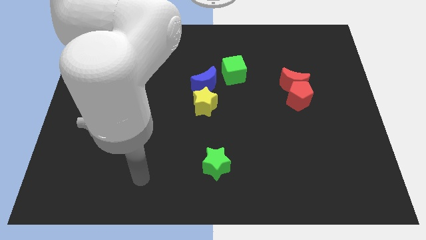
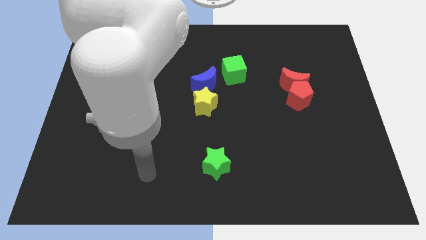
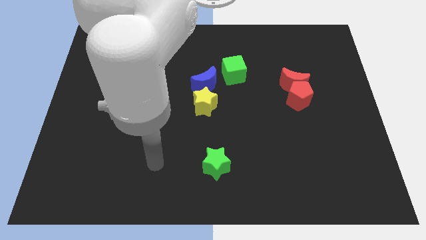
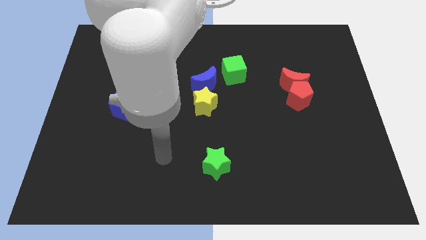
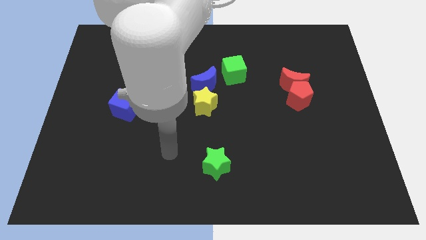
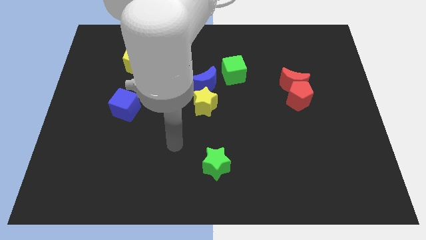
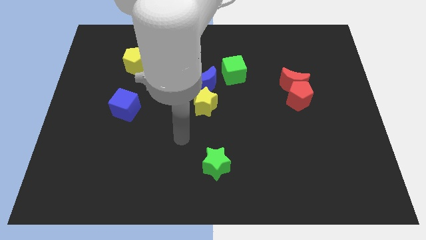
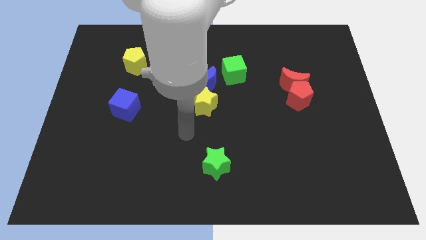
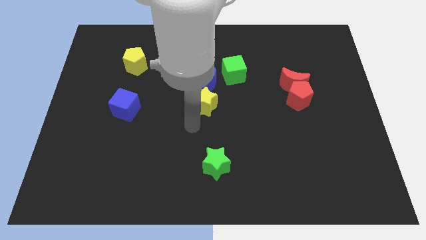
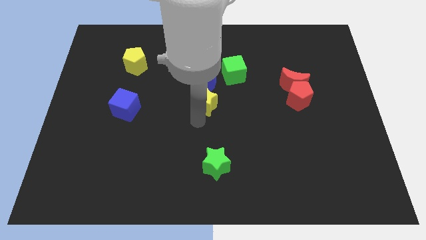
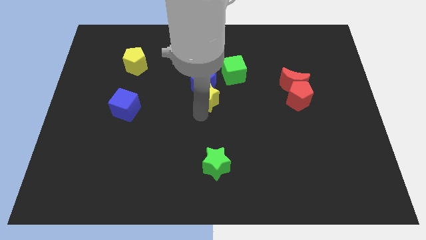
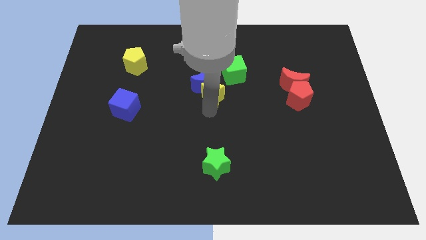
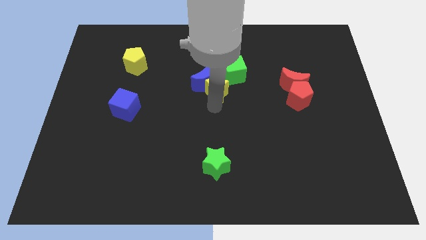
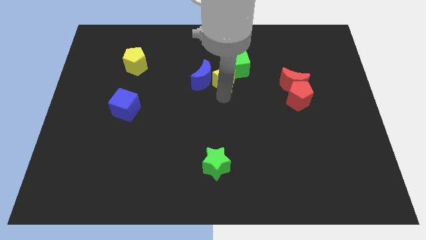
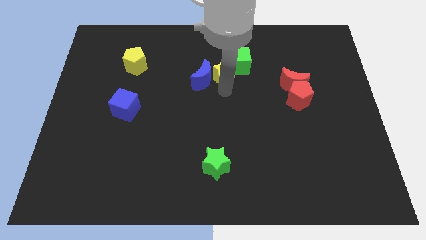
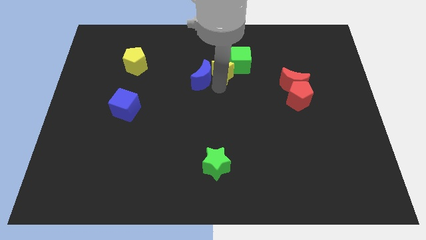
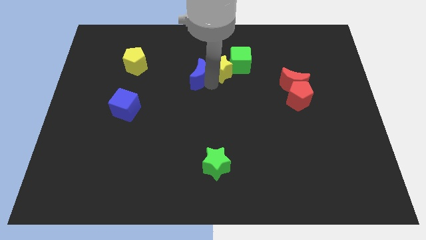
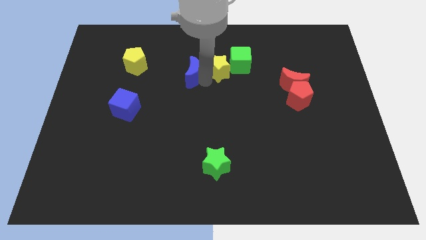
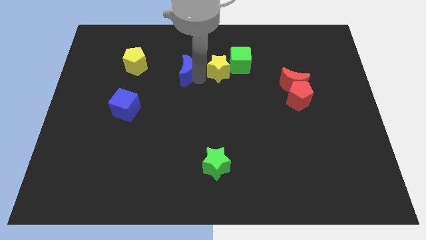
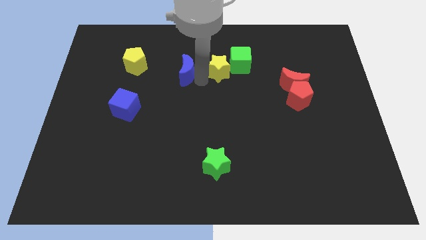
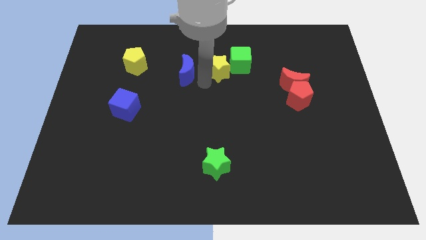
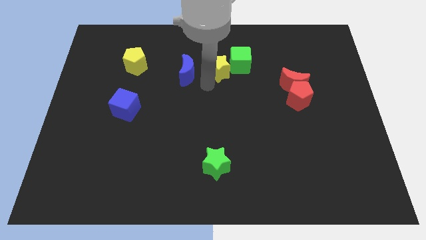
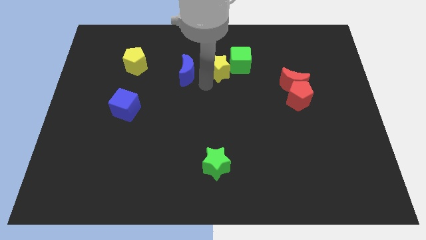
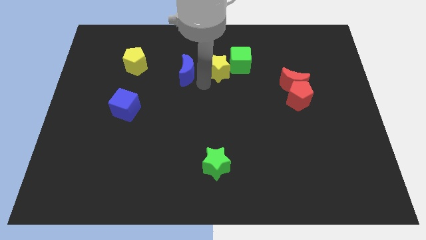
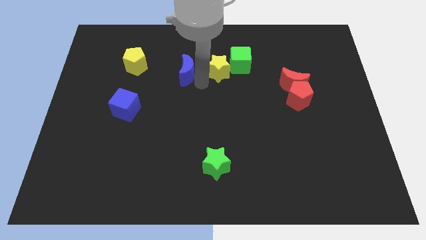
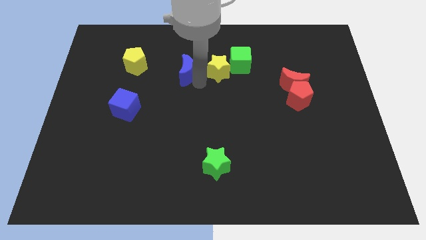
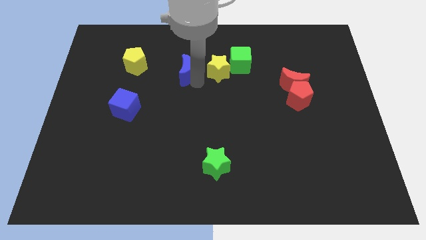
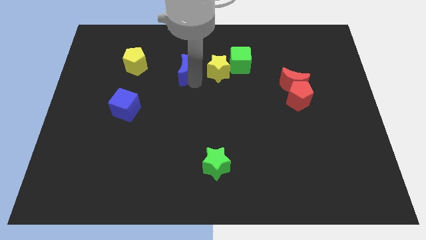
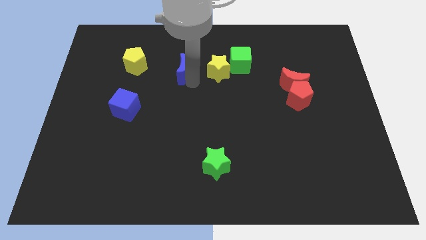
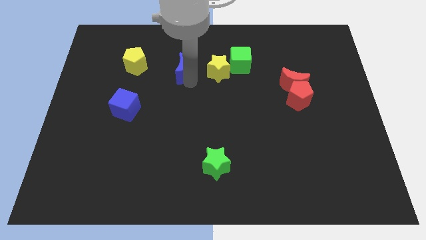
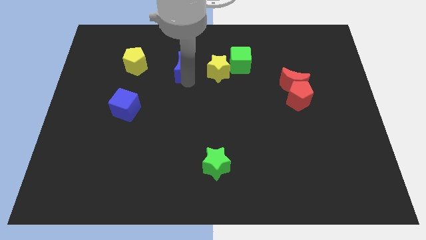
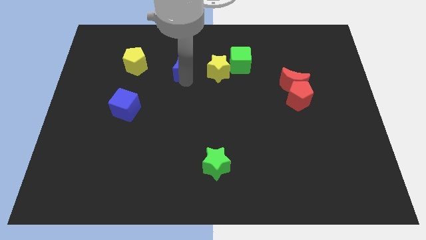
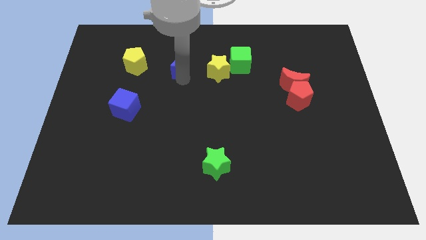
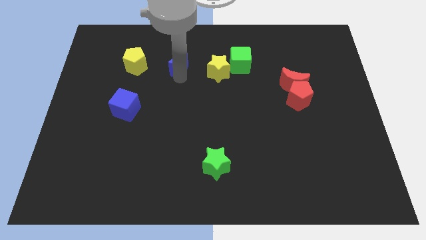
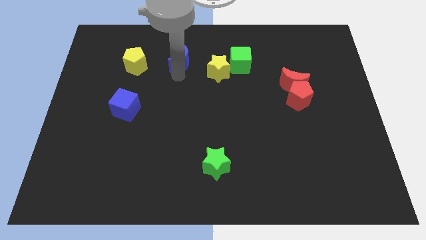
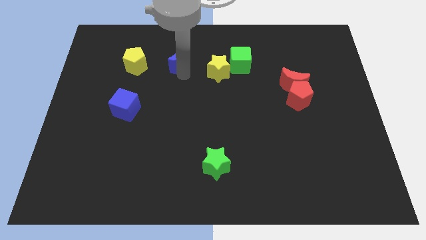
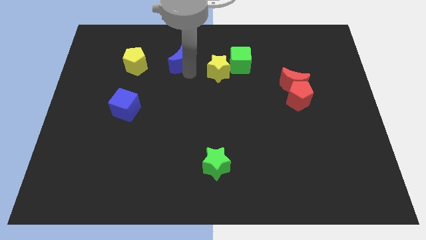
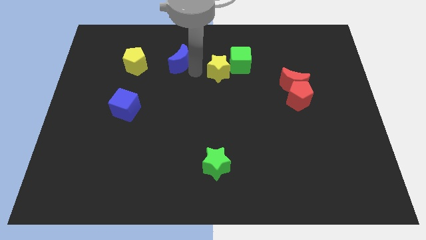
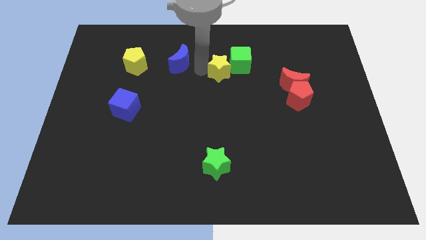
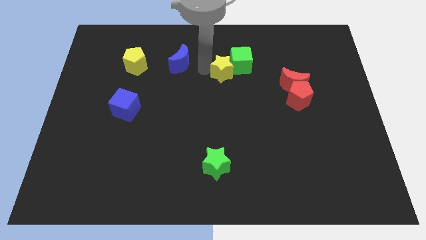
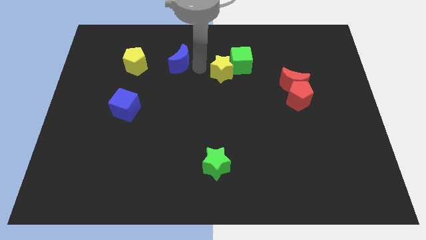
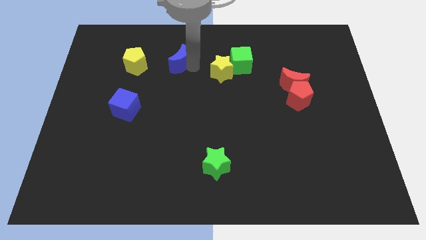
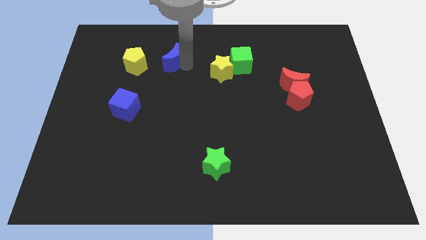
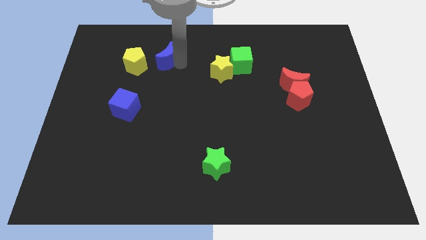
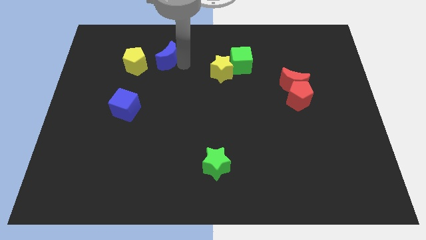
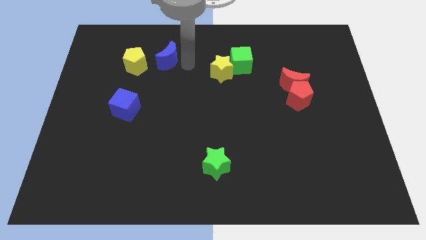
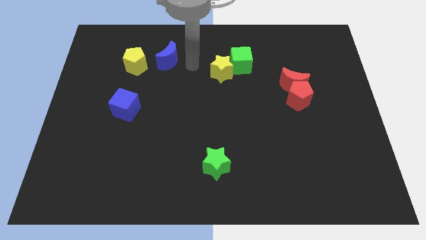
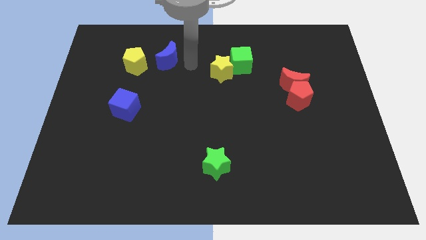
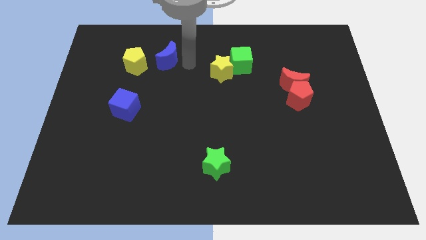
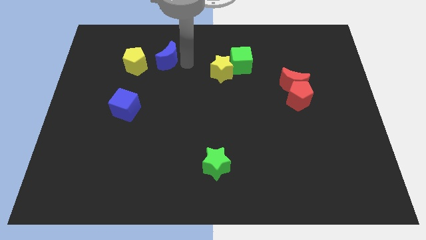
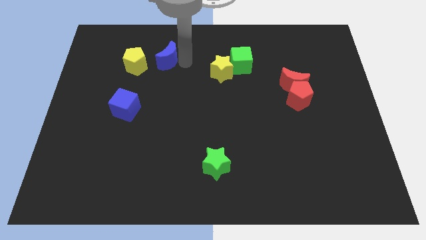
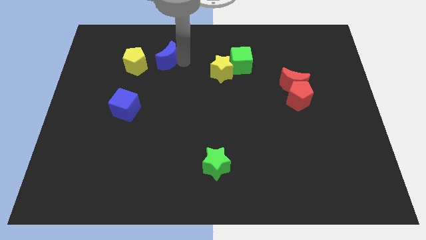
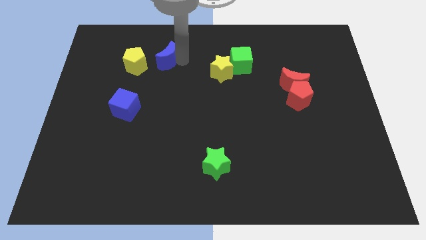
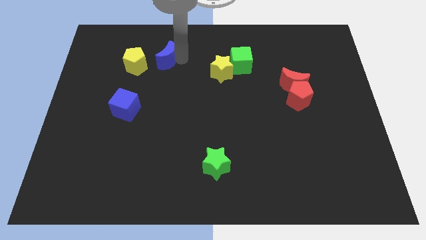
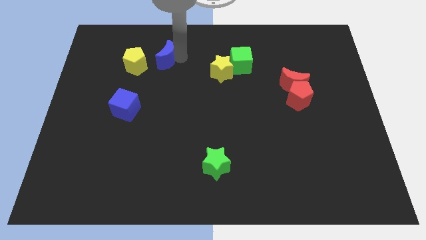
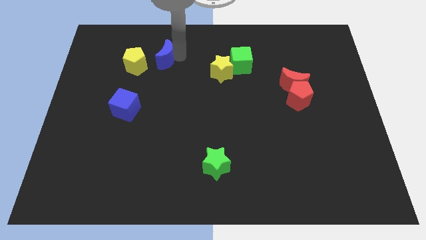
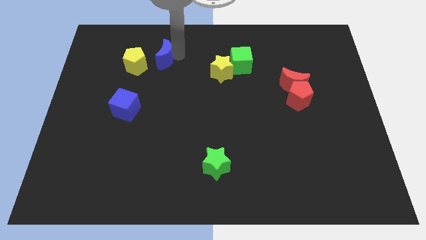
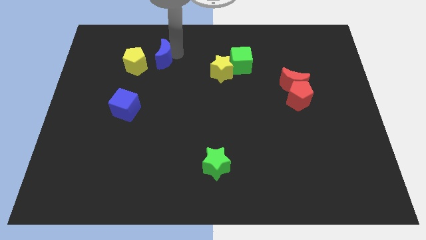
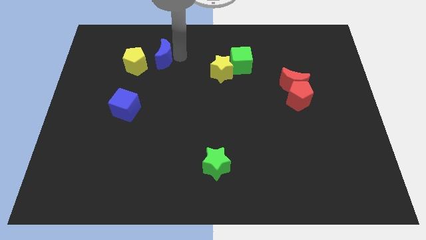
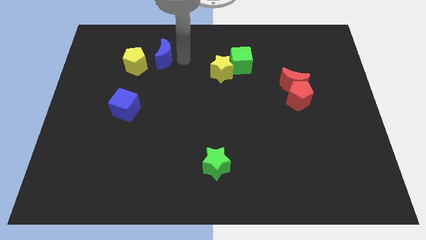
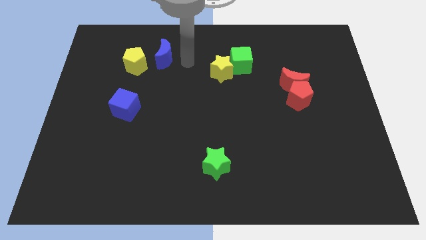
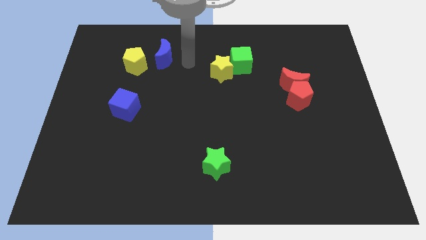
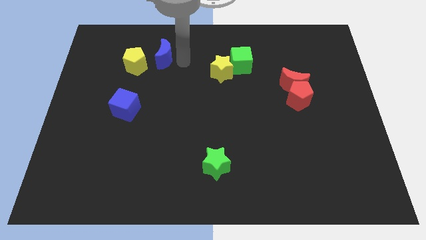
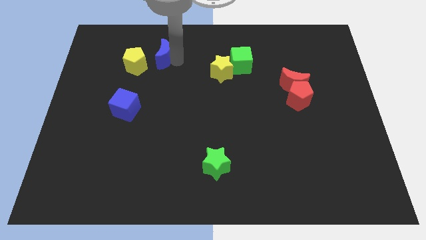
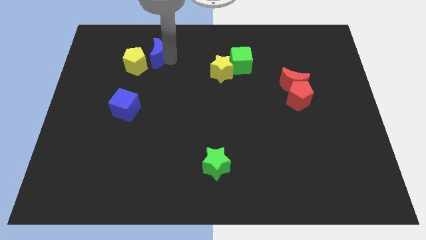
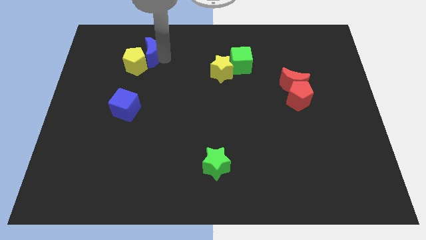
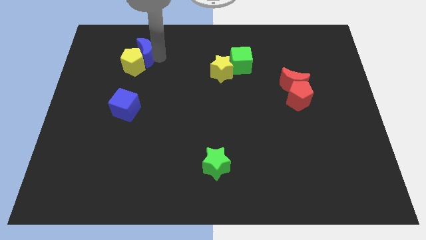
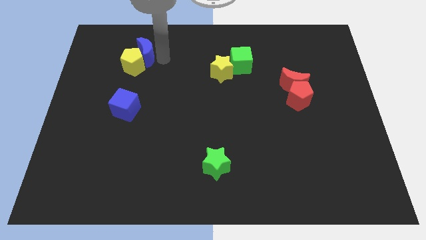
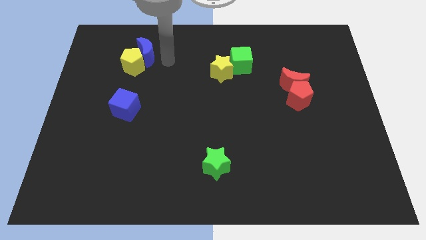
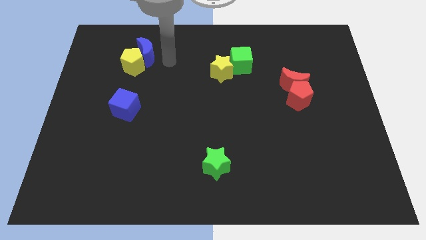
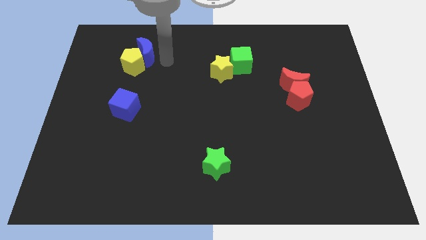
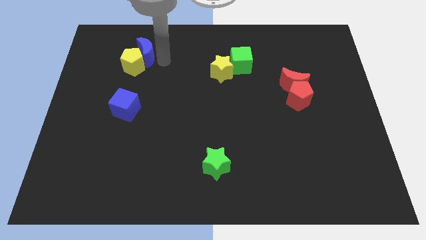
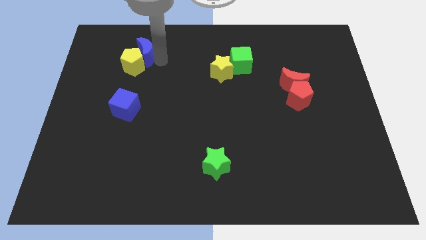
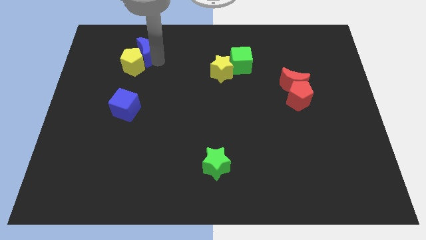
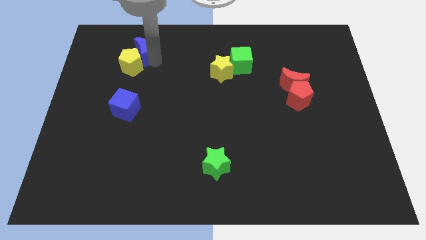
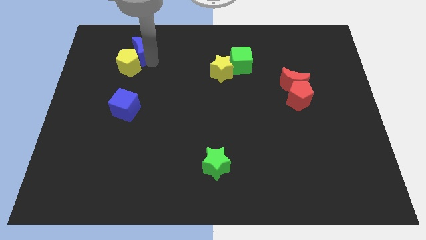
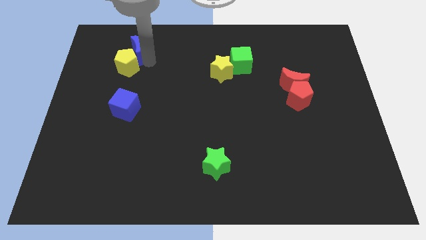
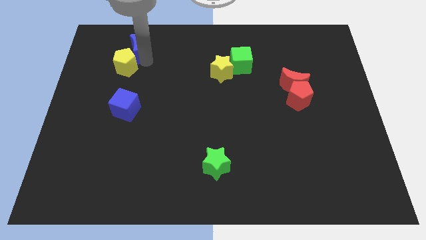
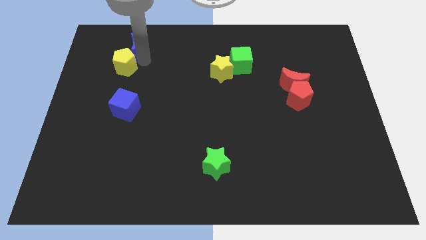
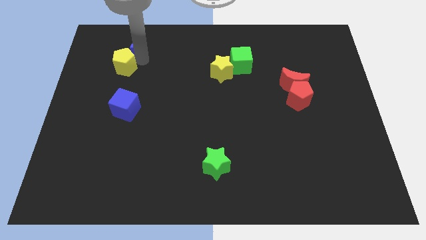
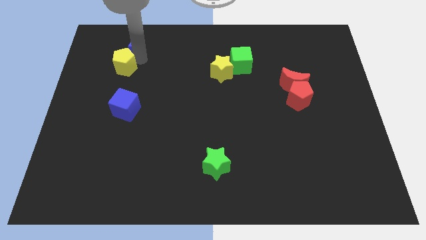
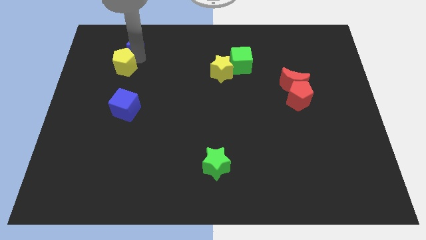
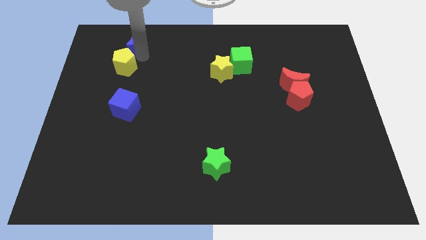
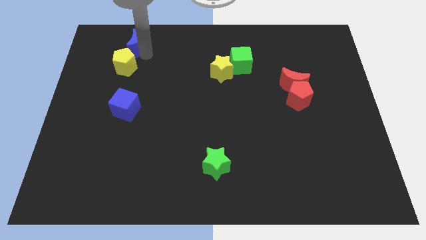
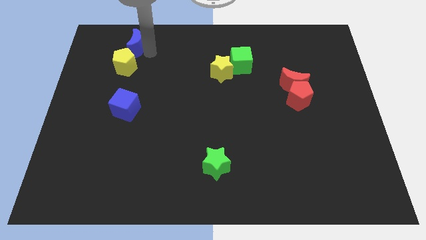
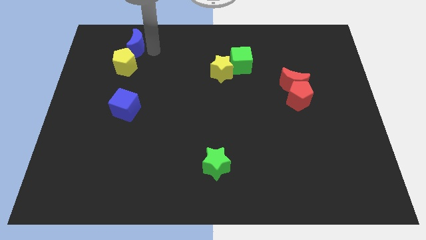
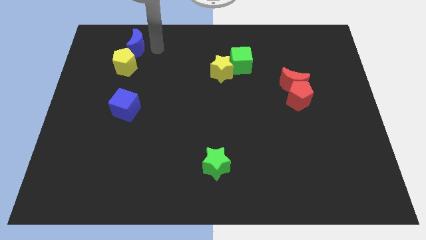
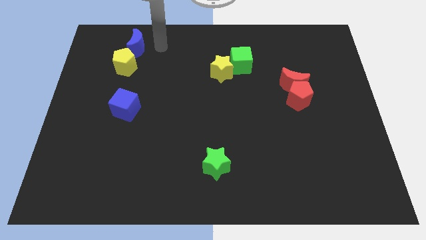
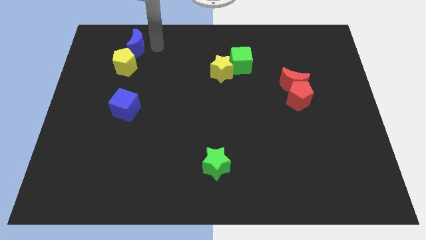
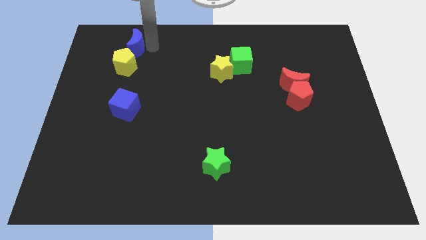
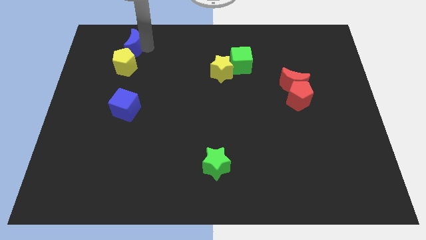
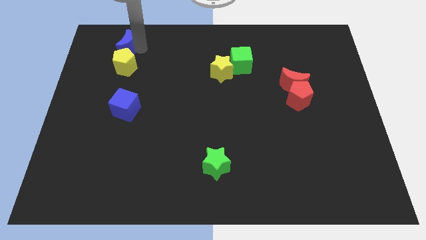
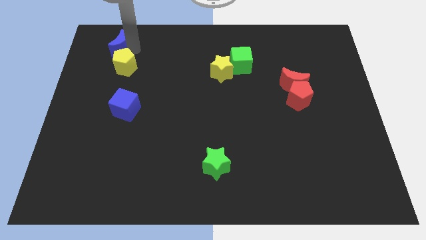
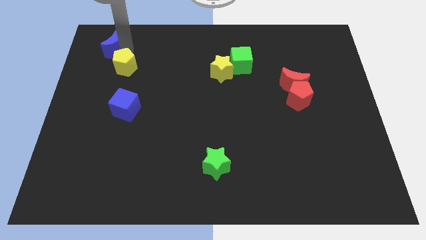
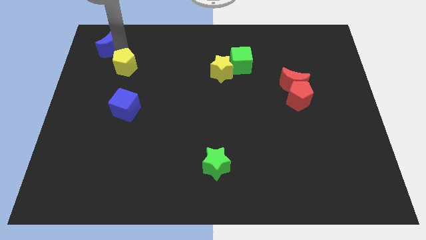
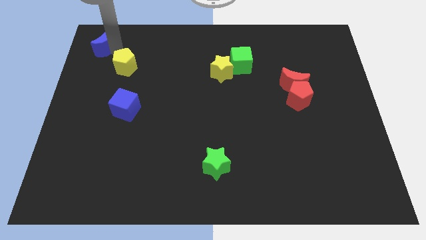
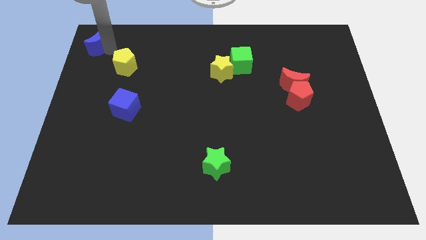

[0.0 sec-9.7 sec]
put the blue moon to the top left of the board
